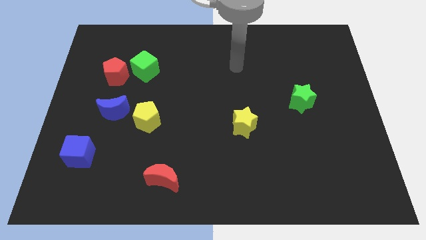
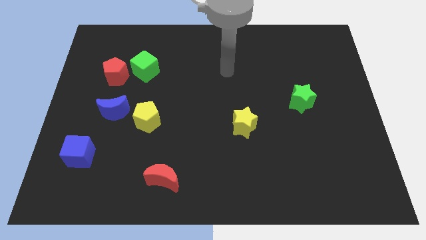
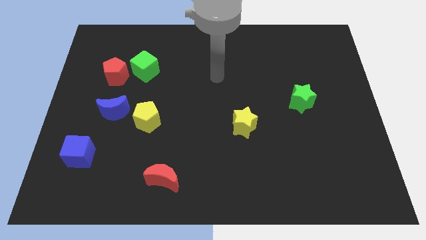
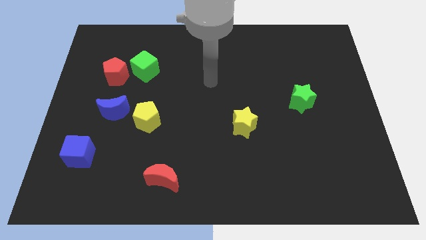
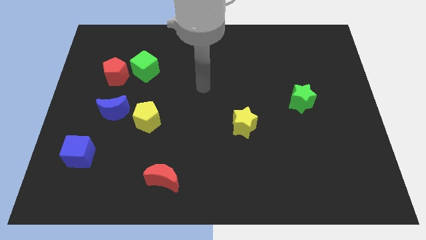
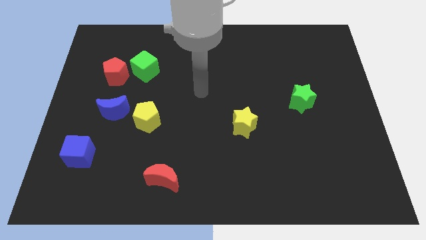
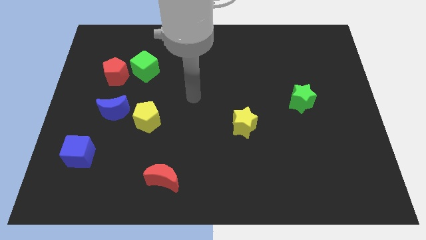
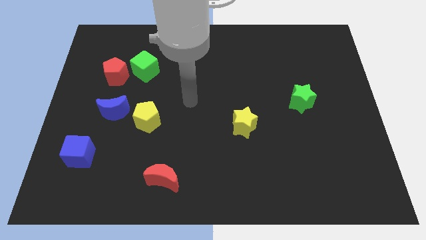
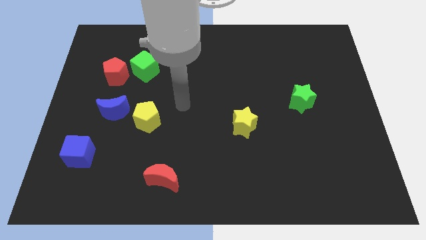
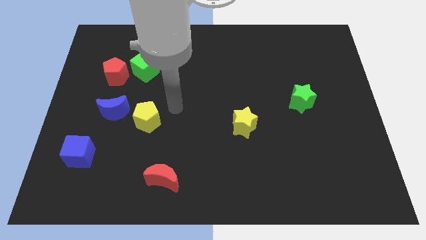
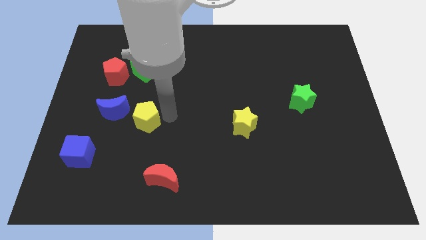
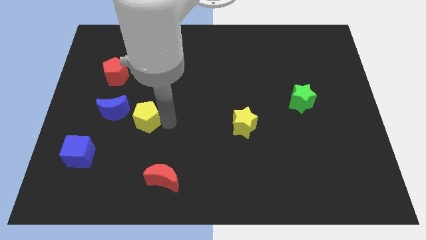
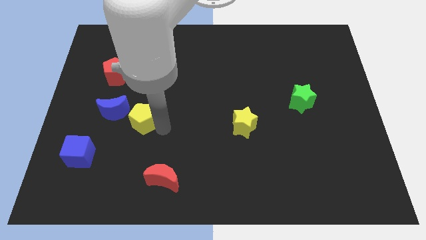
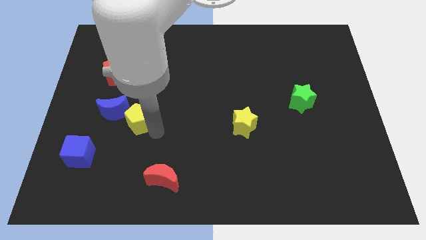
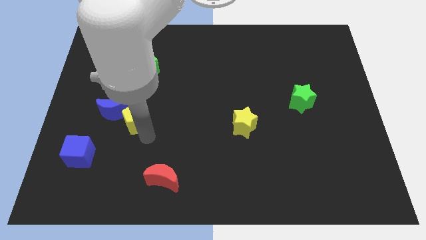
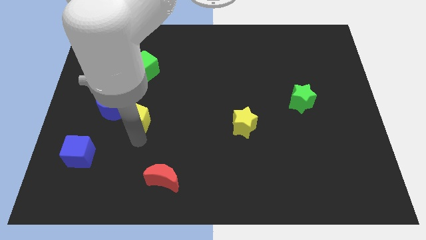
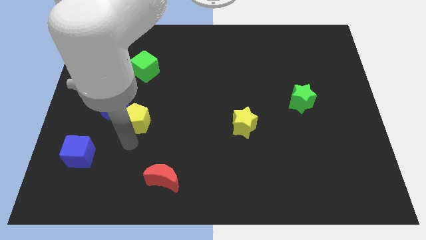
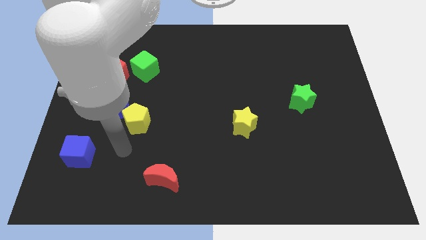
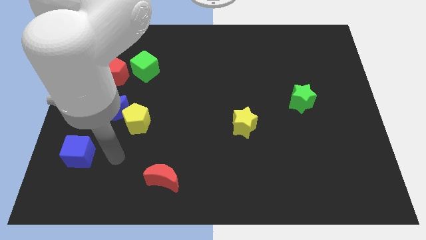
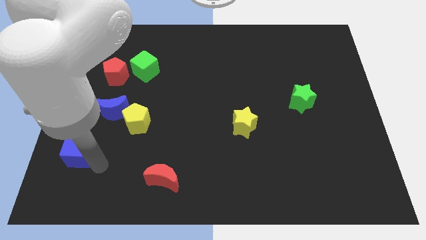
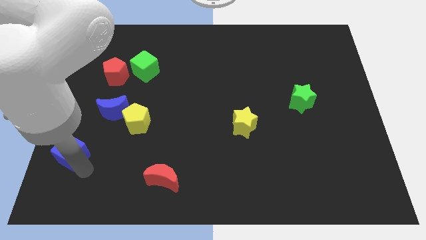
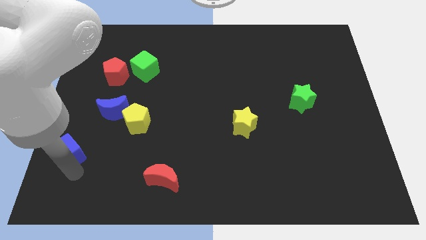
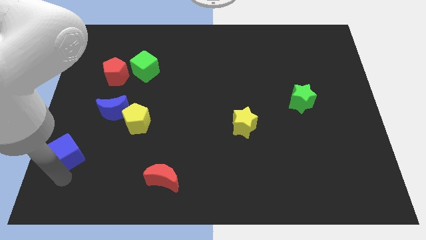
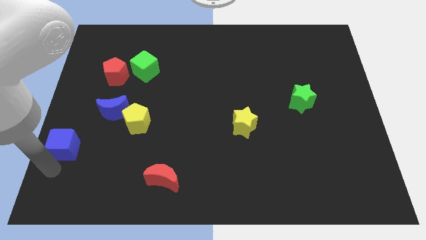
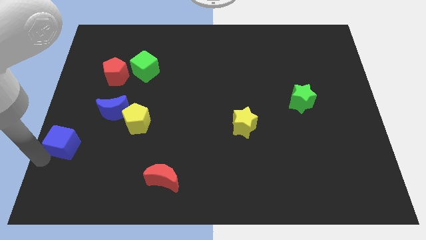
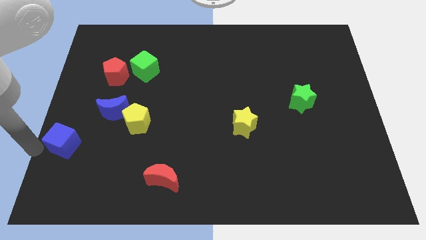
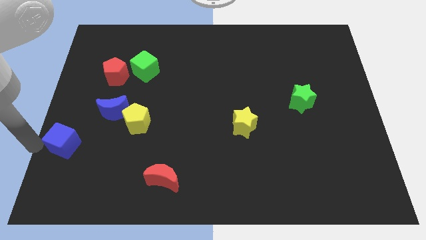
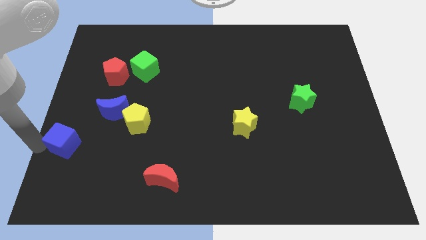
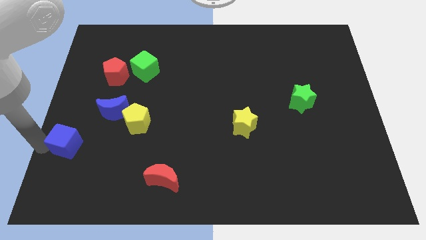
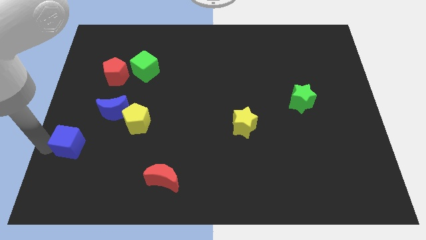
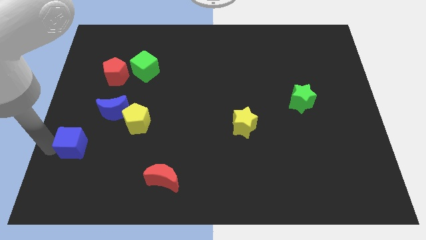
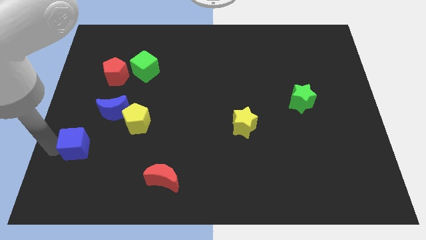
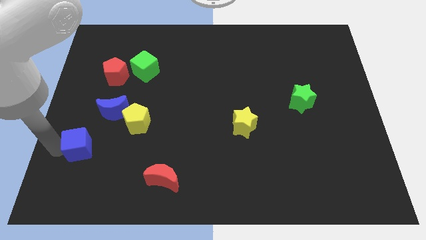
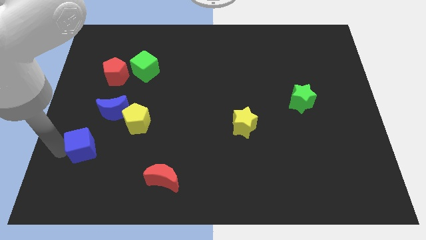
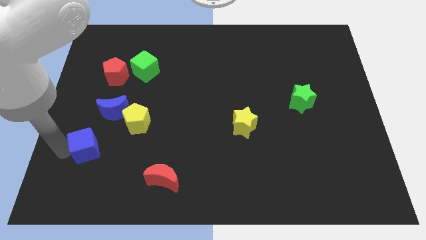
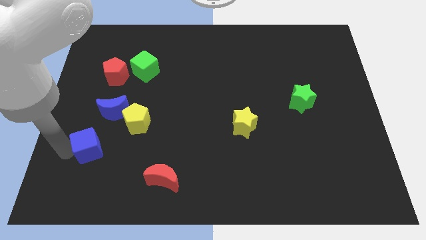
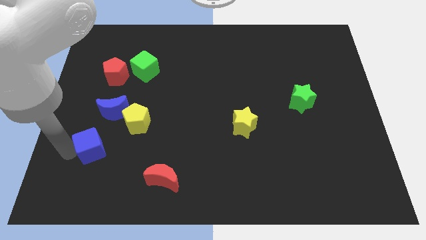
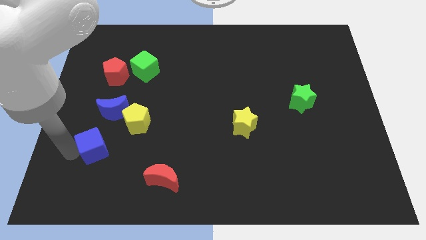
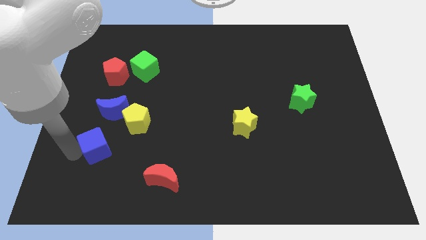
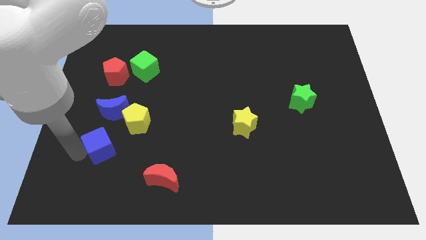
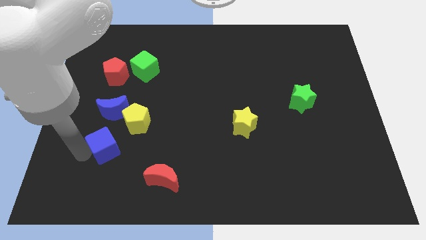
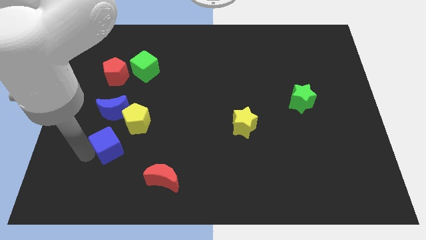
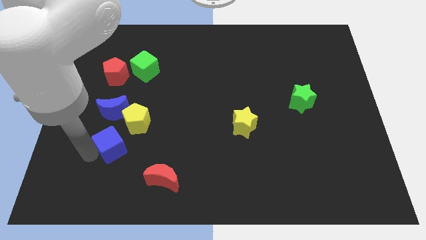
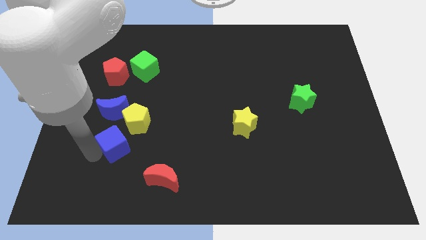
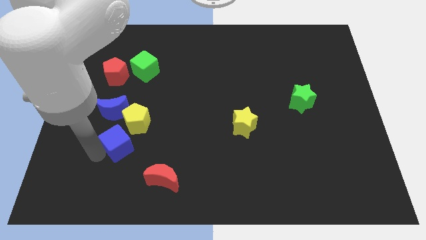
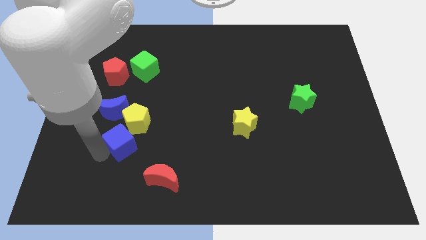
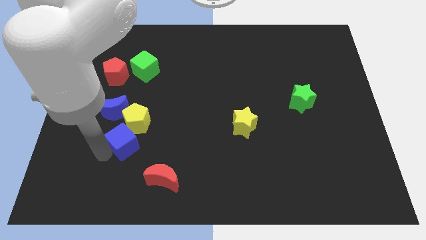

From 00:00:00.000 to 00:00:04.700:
push the blue cube to the yellow pentagon

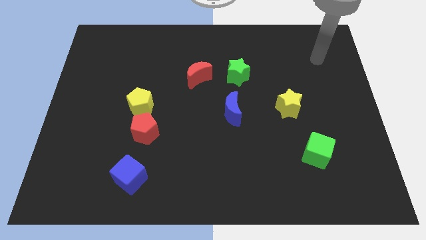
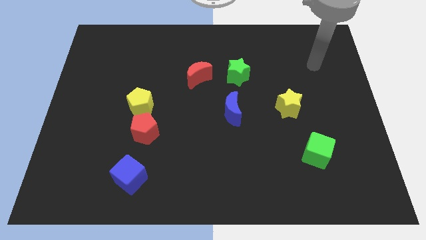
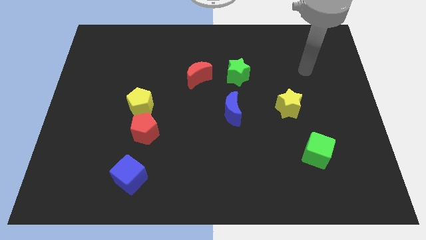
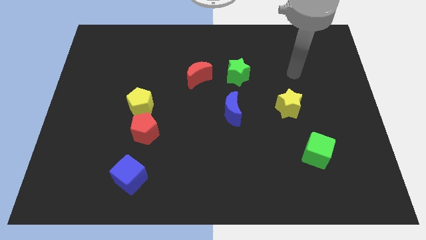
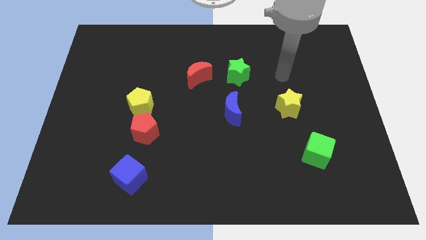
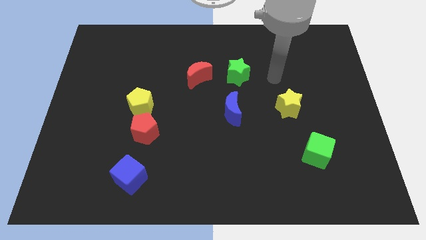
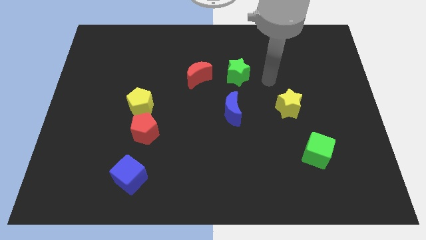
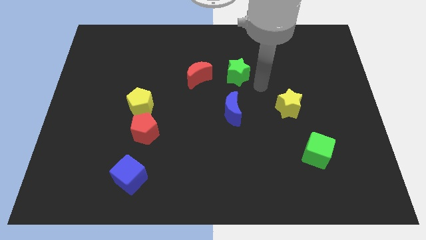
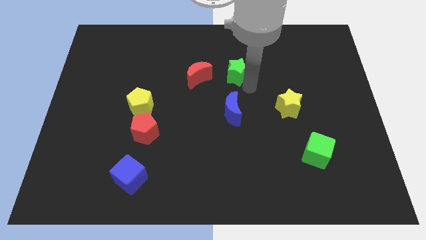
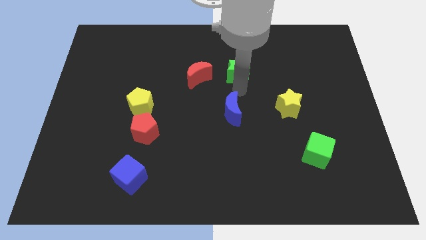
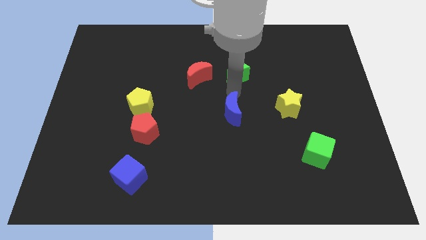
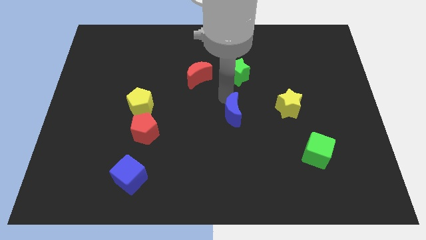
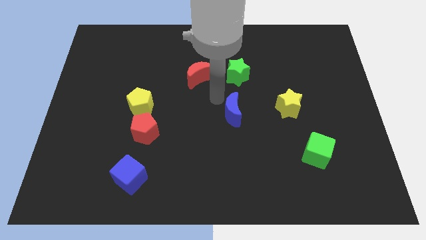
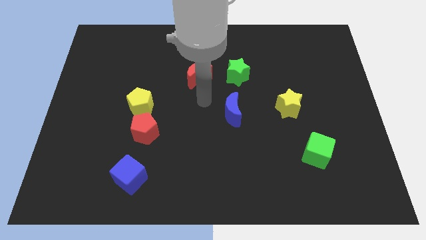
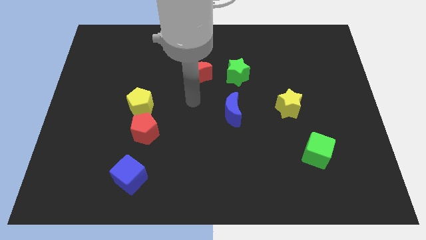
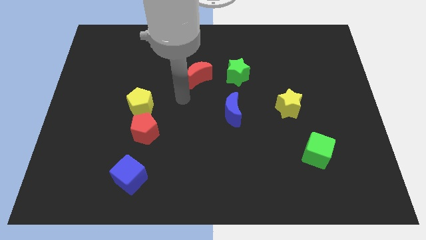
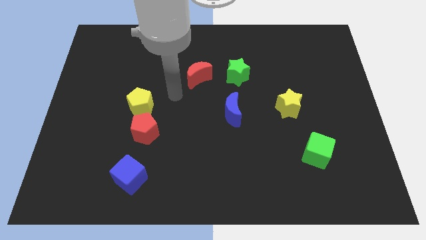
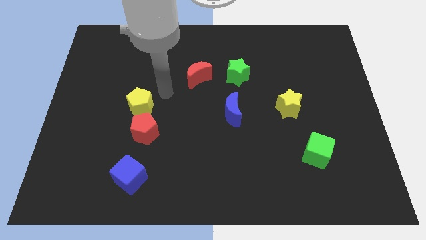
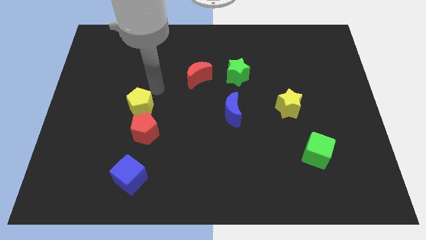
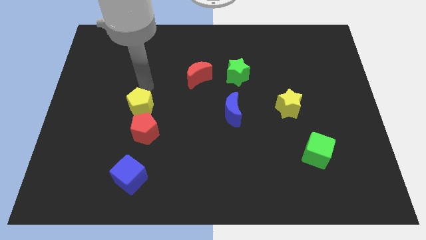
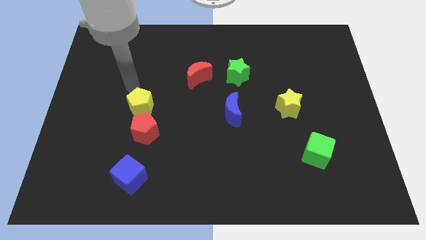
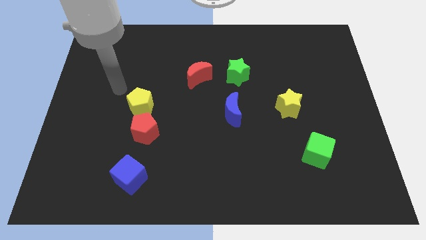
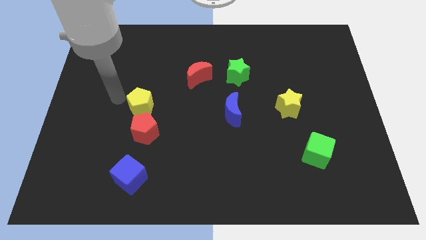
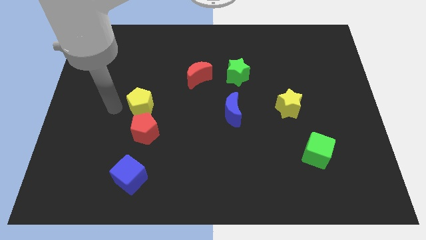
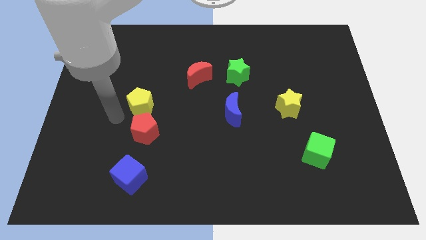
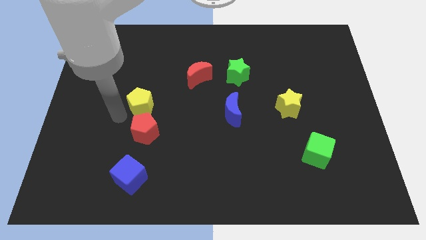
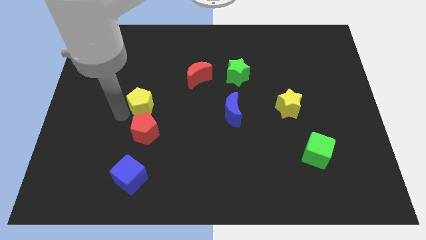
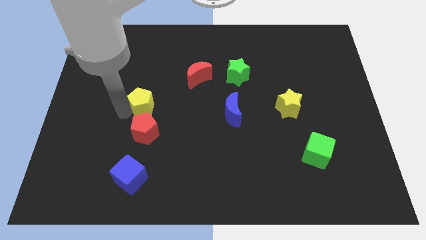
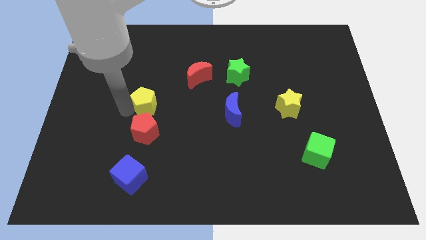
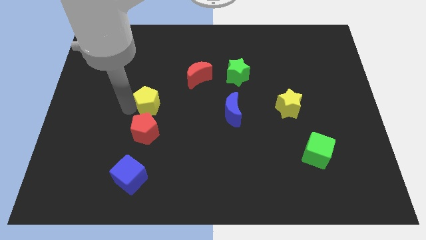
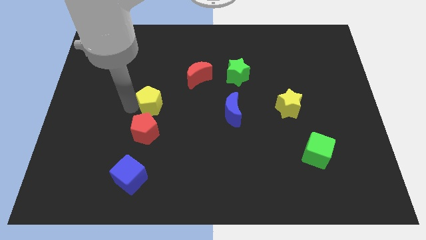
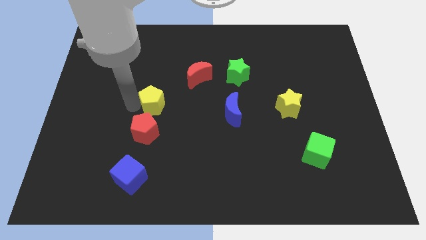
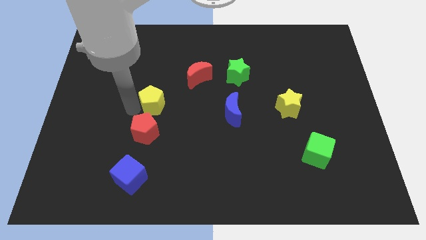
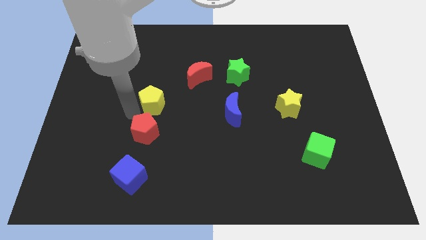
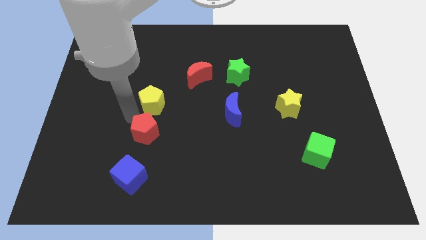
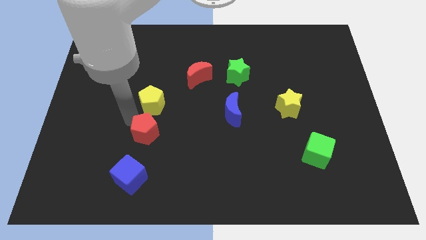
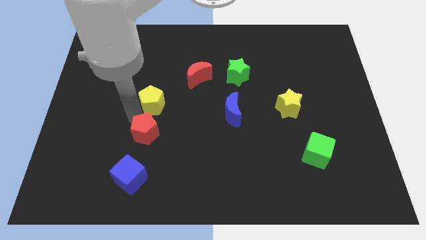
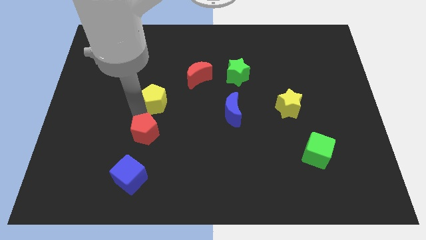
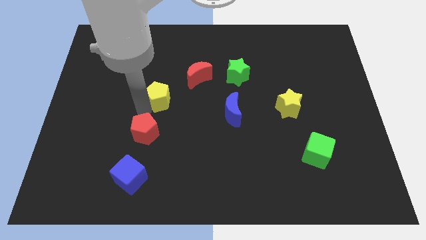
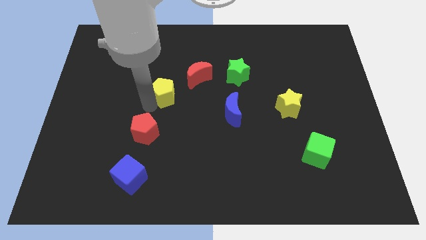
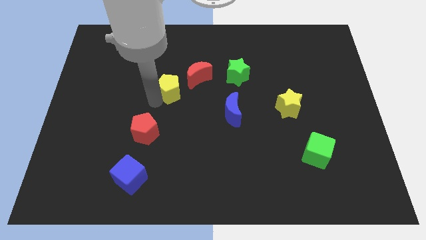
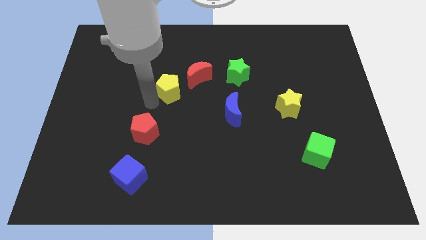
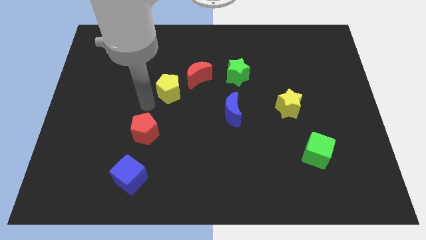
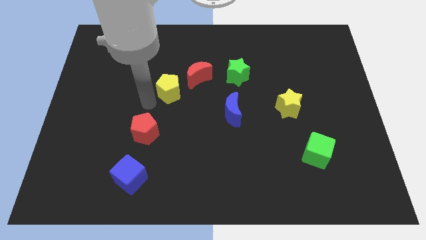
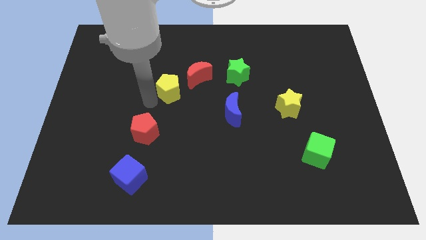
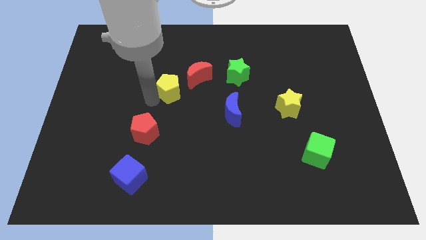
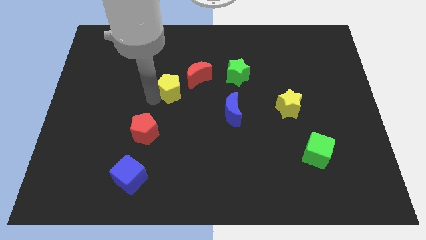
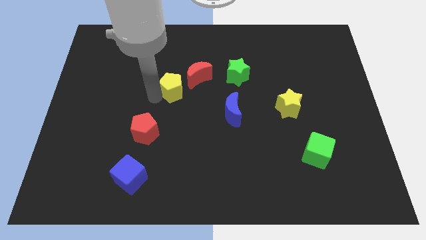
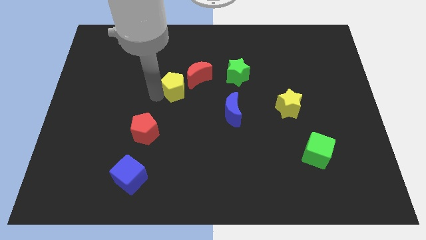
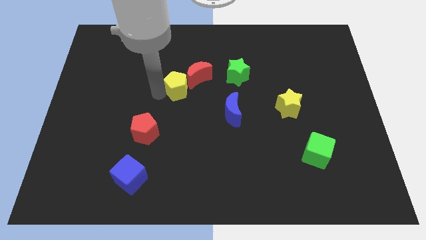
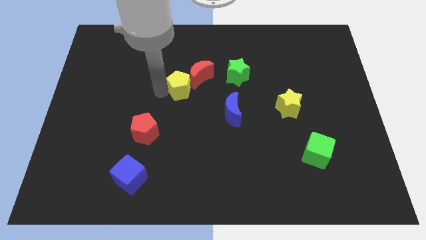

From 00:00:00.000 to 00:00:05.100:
put the yellow pentagon next to the red moon
